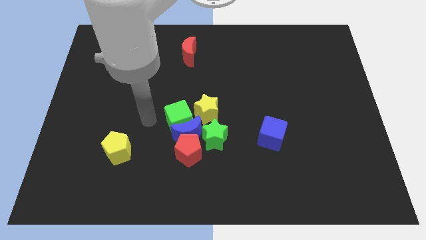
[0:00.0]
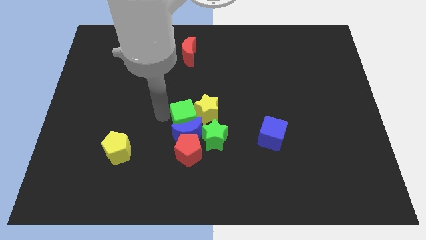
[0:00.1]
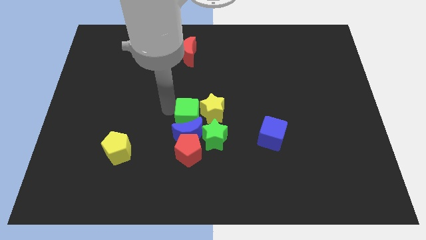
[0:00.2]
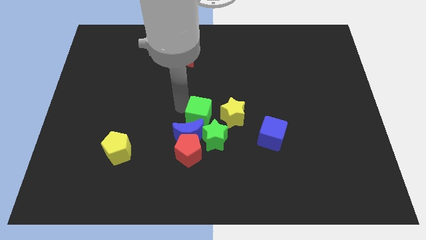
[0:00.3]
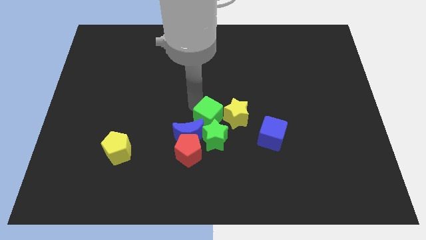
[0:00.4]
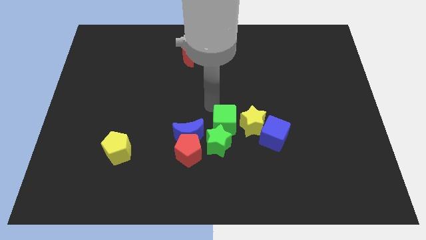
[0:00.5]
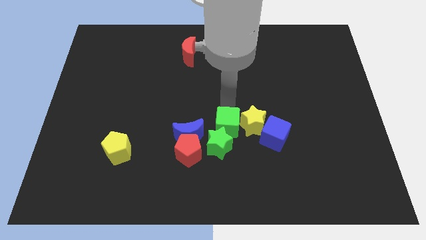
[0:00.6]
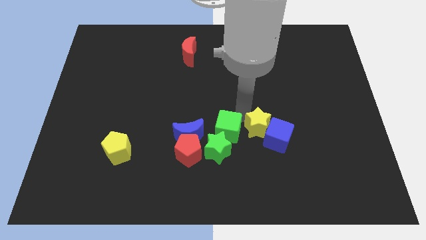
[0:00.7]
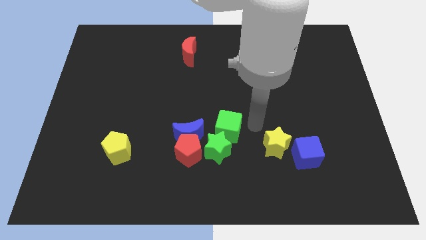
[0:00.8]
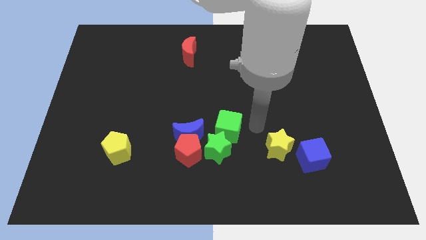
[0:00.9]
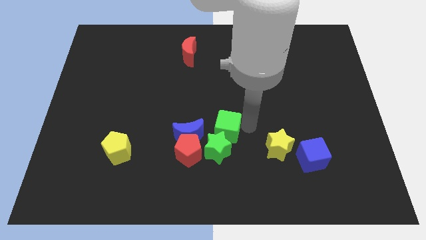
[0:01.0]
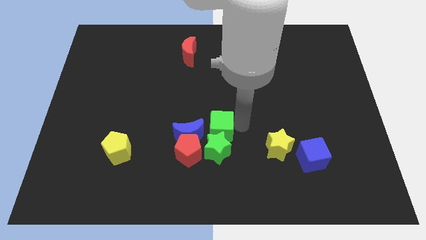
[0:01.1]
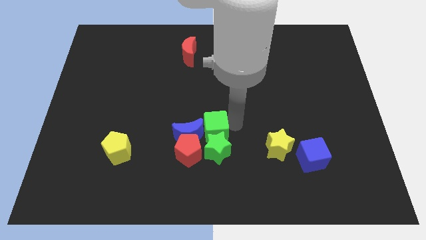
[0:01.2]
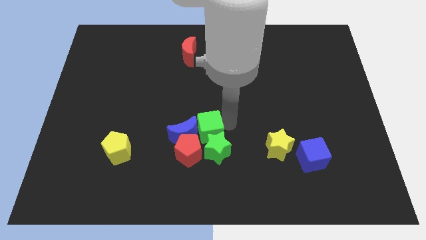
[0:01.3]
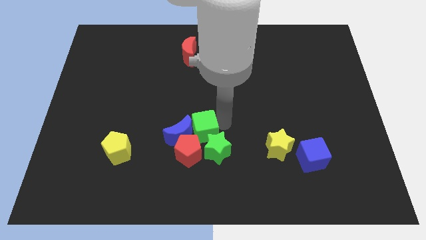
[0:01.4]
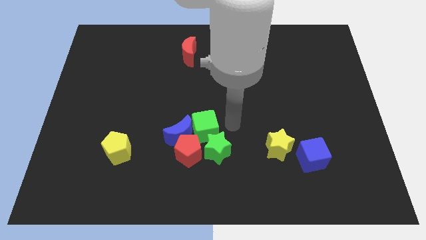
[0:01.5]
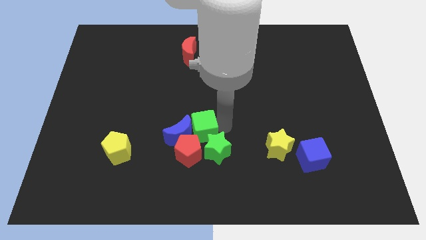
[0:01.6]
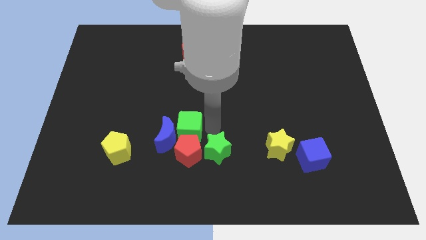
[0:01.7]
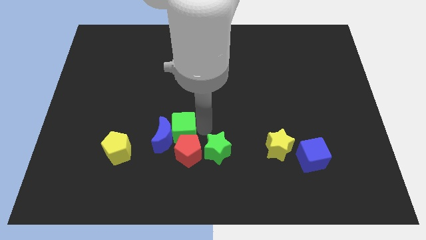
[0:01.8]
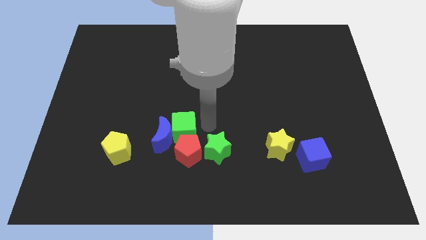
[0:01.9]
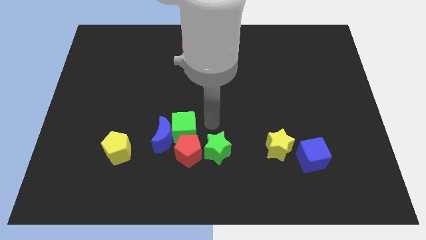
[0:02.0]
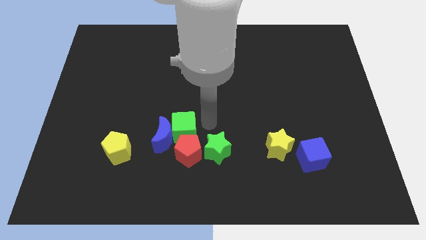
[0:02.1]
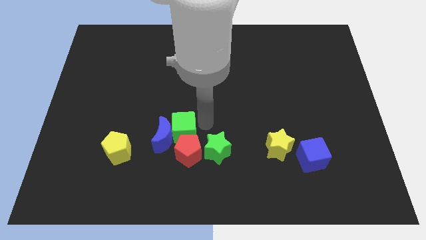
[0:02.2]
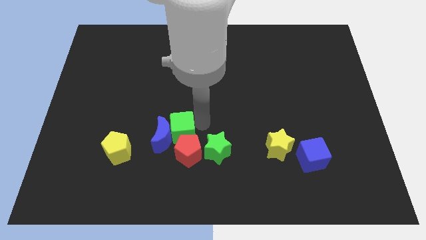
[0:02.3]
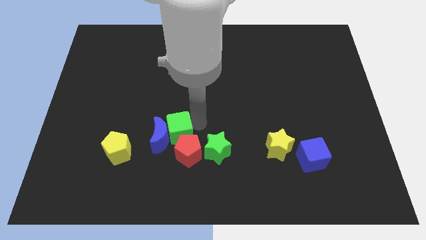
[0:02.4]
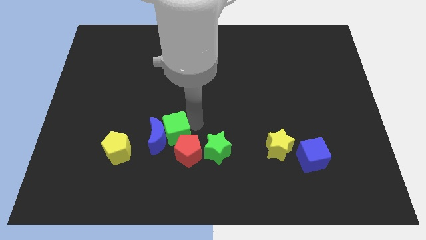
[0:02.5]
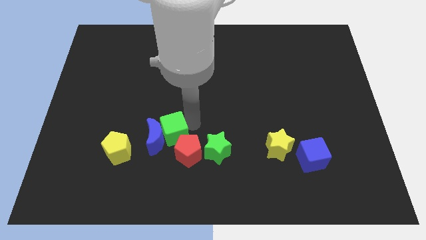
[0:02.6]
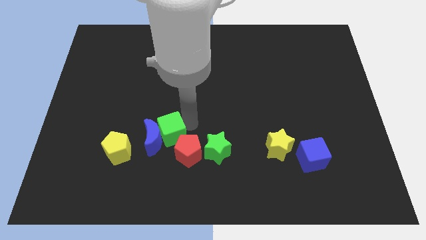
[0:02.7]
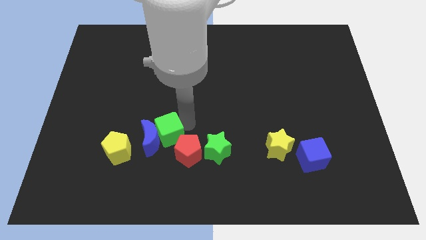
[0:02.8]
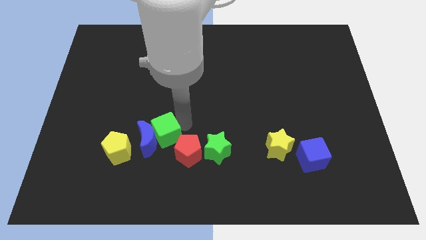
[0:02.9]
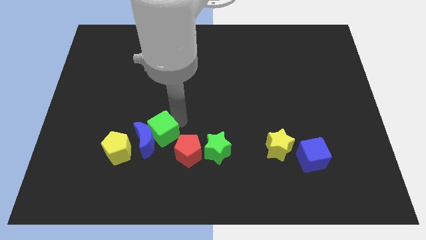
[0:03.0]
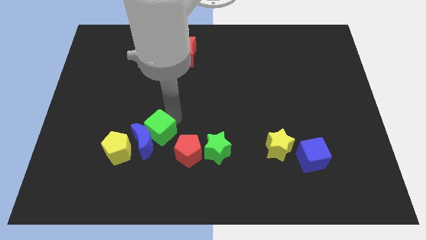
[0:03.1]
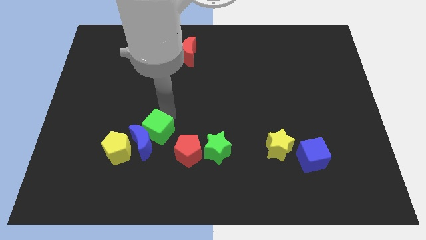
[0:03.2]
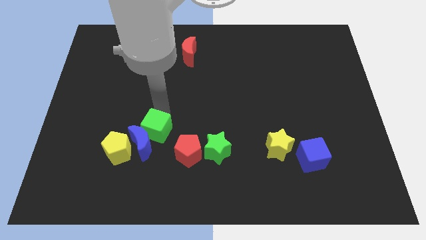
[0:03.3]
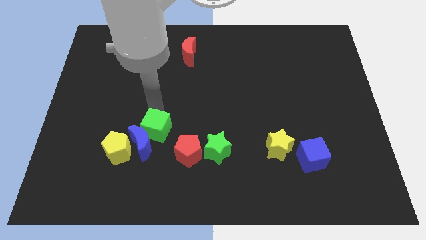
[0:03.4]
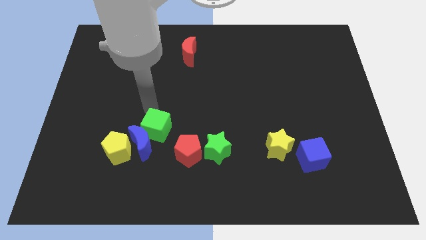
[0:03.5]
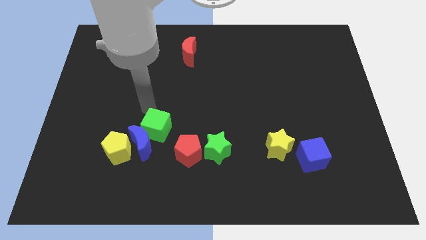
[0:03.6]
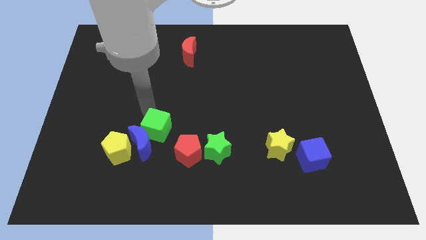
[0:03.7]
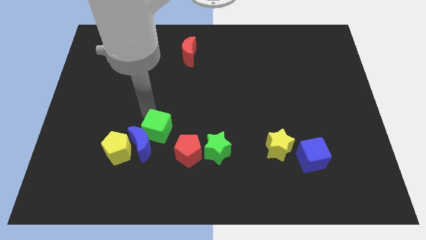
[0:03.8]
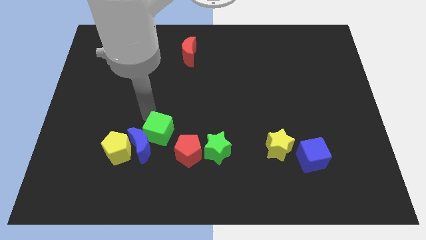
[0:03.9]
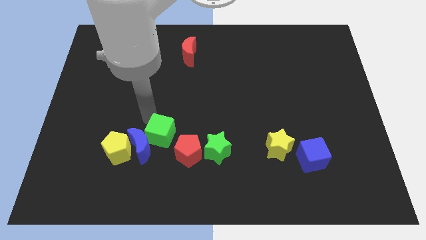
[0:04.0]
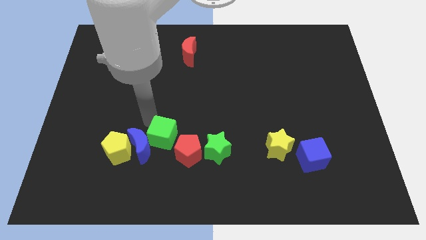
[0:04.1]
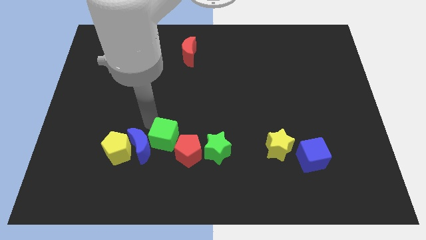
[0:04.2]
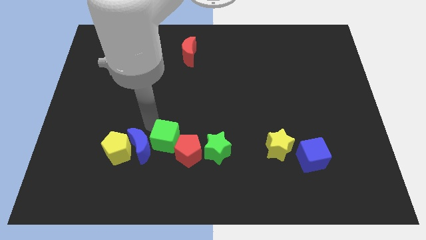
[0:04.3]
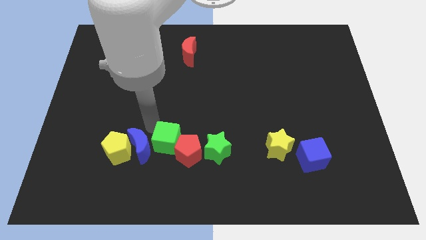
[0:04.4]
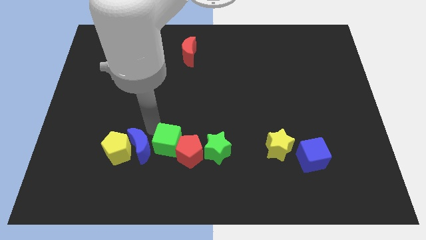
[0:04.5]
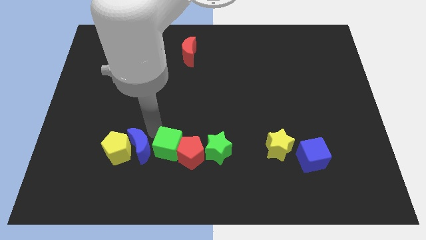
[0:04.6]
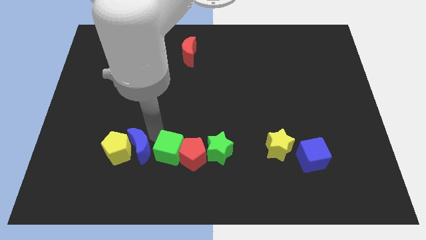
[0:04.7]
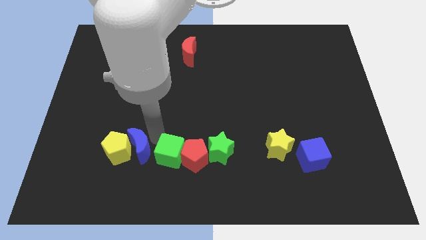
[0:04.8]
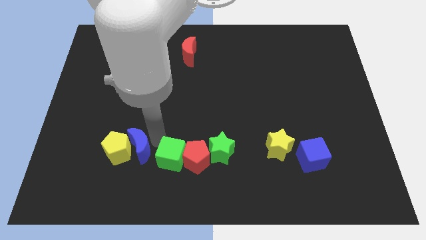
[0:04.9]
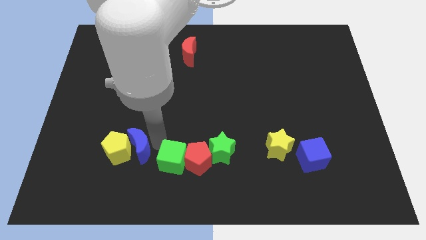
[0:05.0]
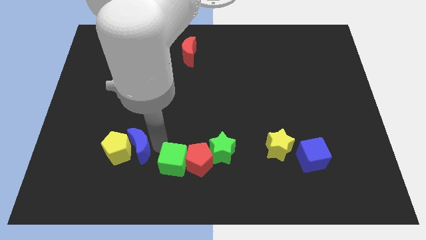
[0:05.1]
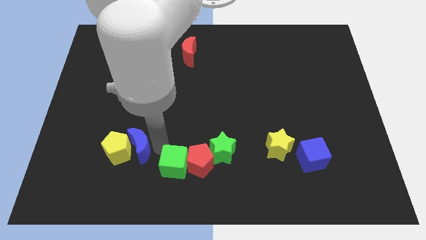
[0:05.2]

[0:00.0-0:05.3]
move the green cube to the bottom left of the green star

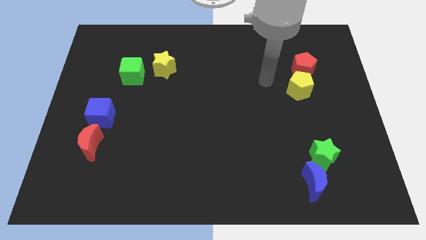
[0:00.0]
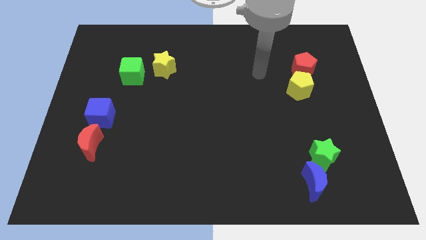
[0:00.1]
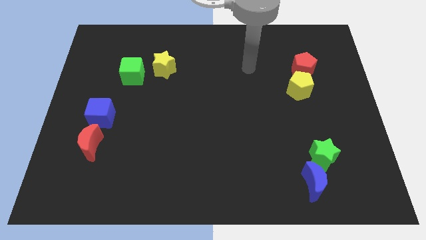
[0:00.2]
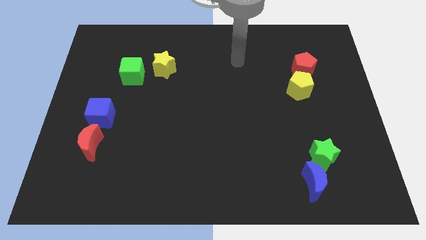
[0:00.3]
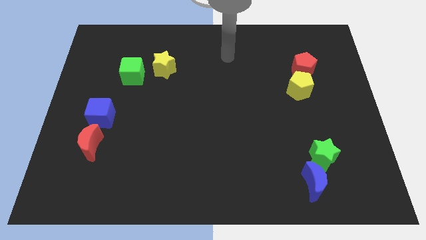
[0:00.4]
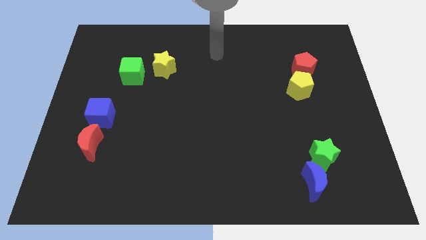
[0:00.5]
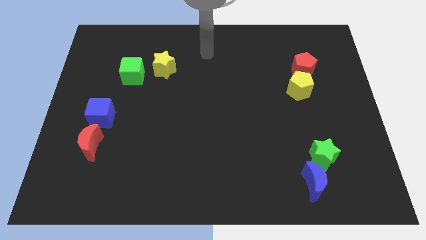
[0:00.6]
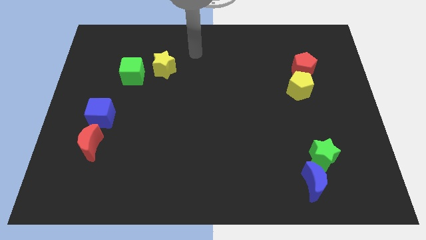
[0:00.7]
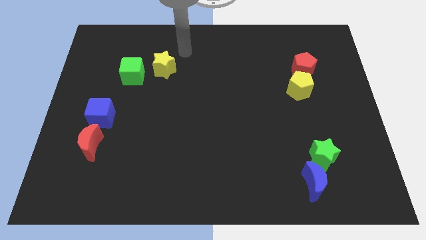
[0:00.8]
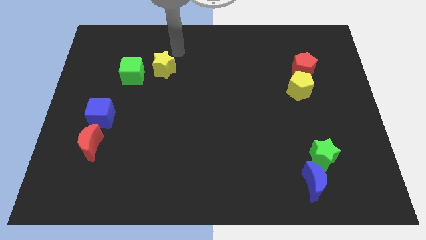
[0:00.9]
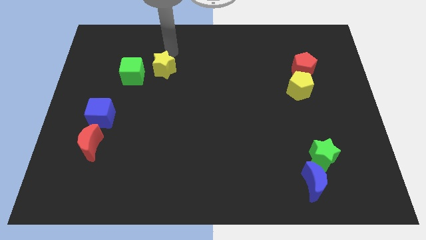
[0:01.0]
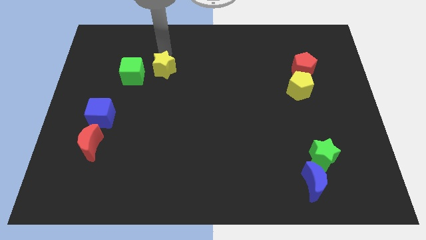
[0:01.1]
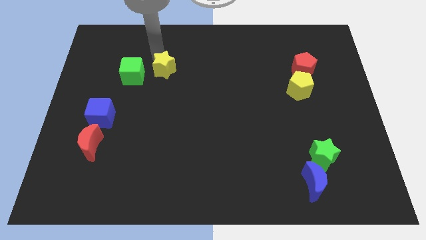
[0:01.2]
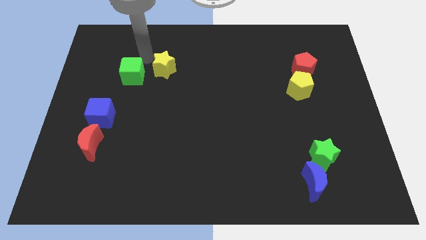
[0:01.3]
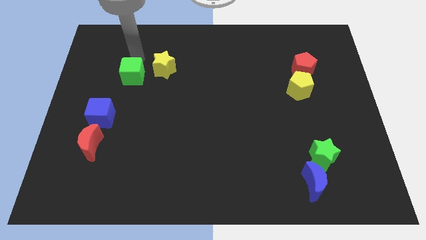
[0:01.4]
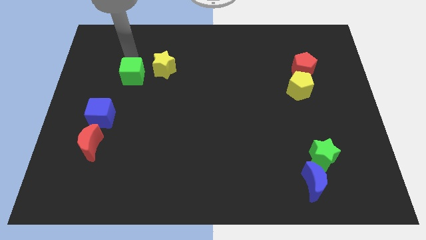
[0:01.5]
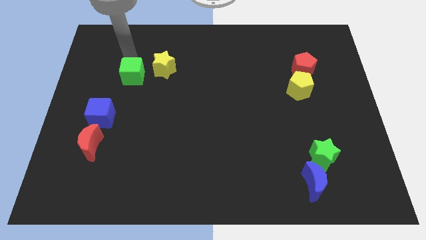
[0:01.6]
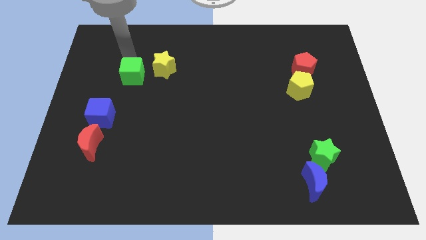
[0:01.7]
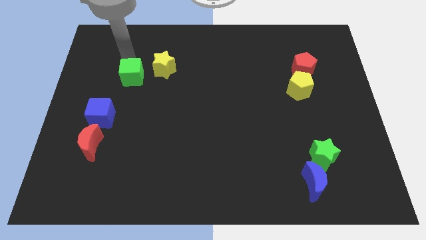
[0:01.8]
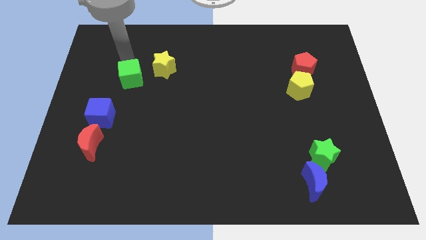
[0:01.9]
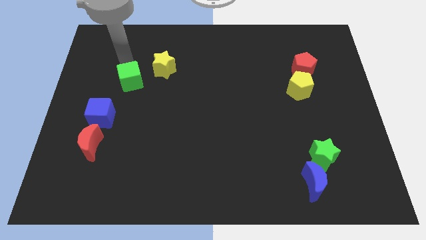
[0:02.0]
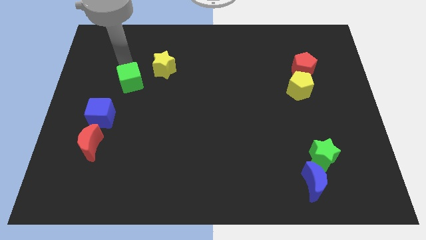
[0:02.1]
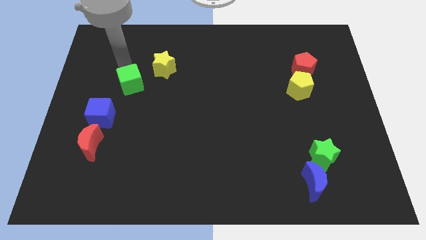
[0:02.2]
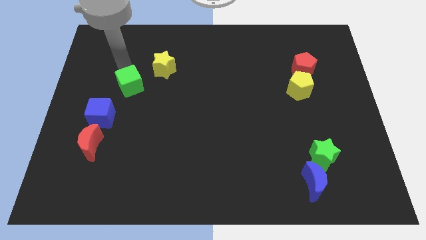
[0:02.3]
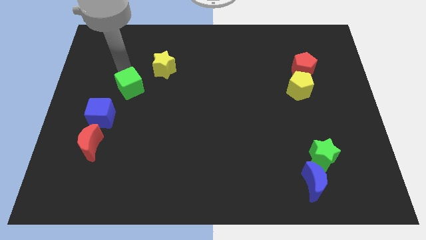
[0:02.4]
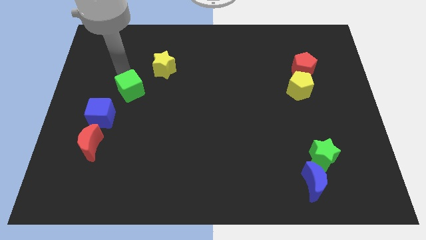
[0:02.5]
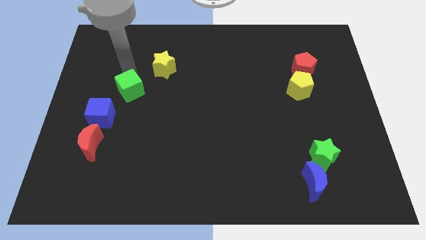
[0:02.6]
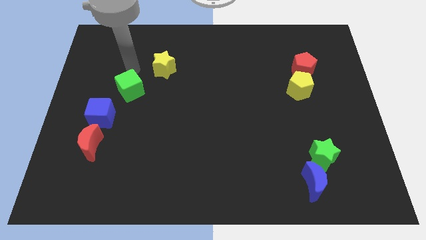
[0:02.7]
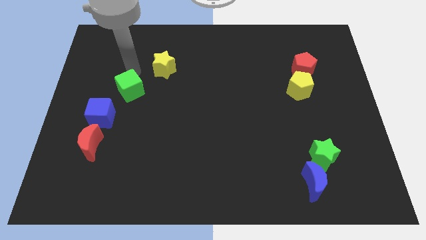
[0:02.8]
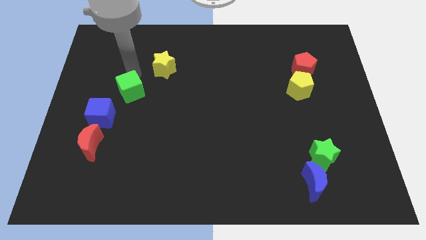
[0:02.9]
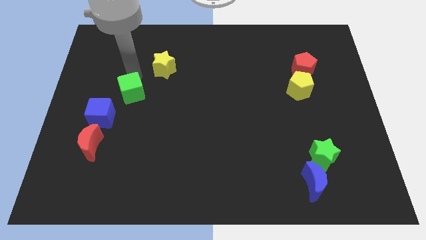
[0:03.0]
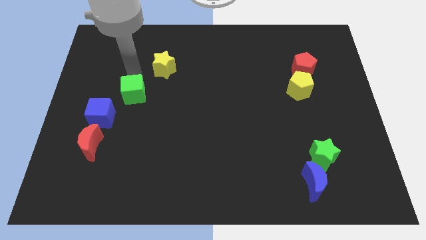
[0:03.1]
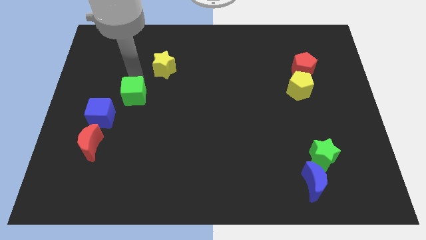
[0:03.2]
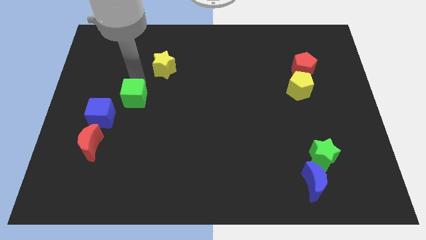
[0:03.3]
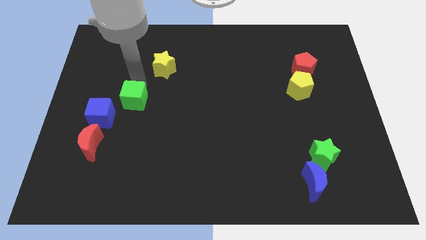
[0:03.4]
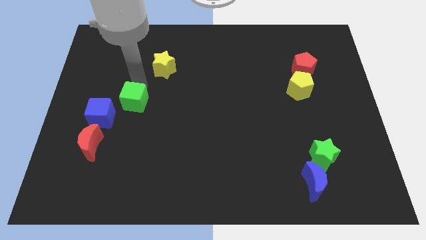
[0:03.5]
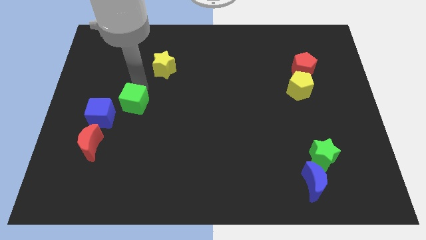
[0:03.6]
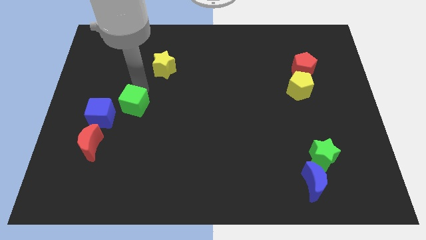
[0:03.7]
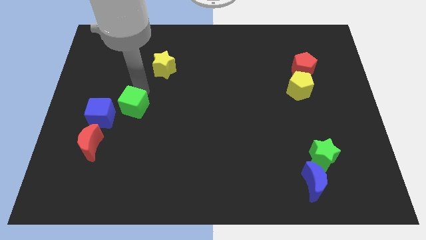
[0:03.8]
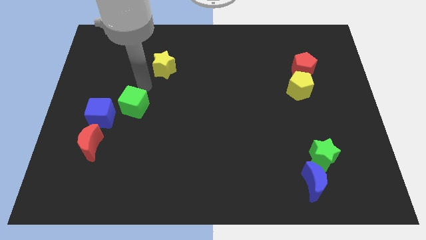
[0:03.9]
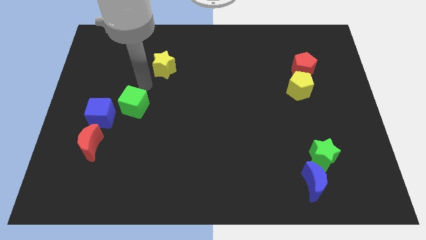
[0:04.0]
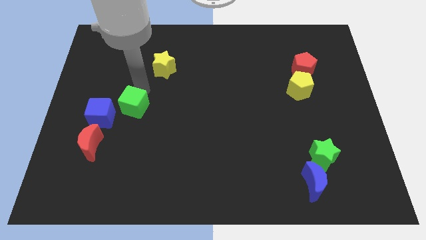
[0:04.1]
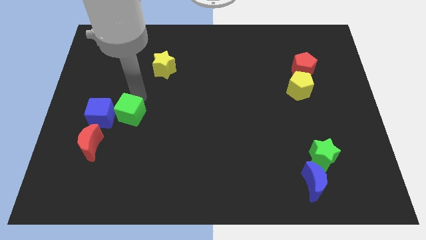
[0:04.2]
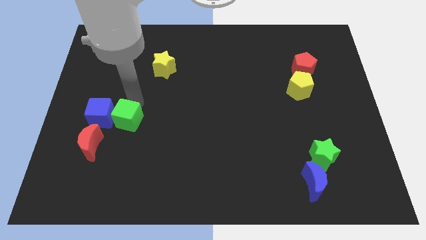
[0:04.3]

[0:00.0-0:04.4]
slide the green cube to the bottom right of the blue cube
